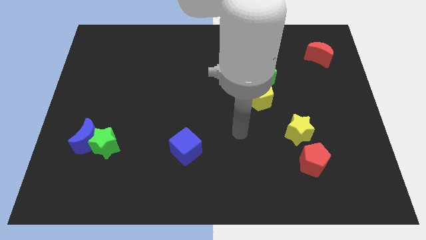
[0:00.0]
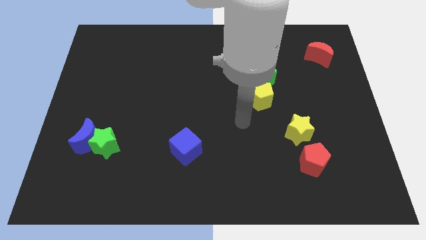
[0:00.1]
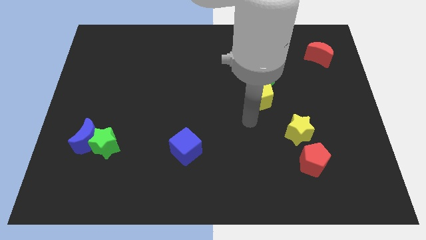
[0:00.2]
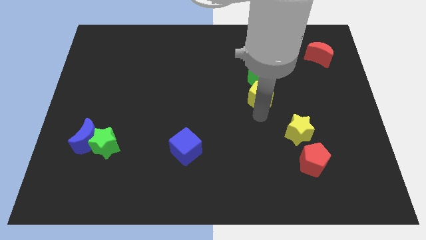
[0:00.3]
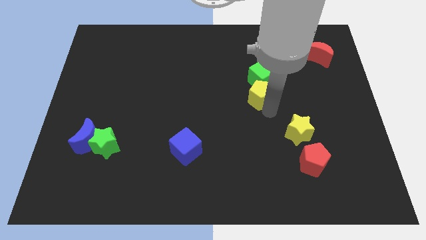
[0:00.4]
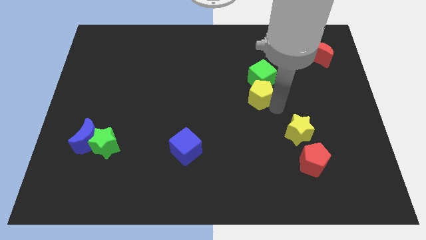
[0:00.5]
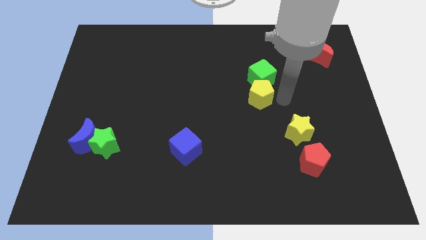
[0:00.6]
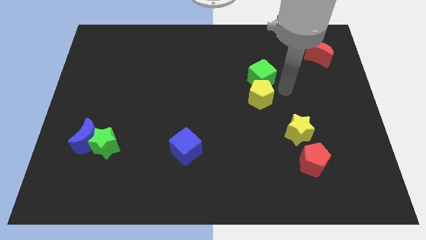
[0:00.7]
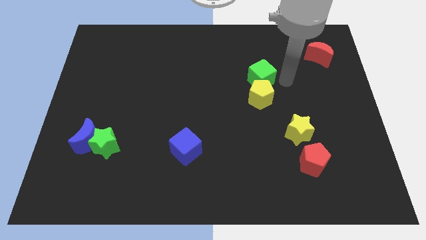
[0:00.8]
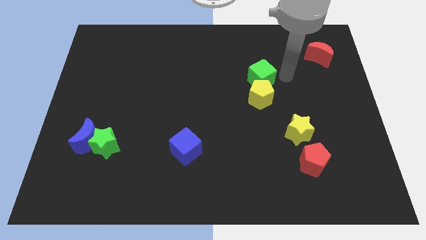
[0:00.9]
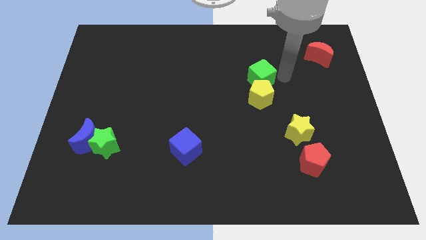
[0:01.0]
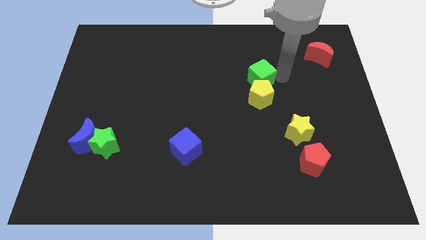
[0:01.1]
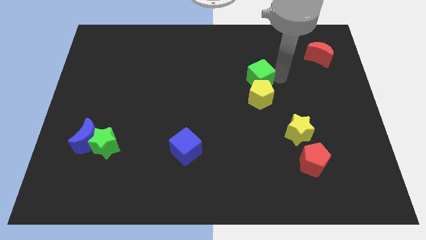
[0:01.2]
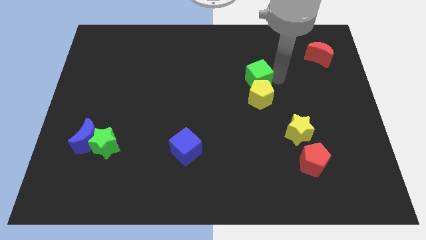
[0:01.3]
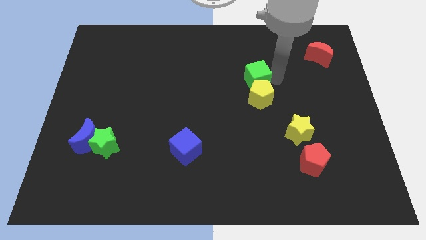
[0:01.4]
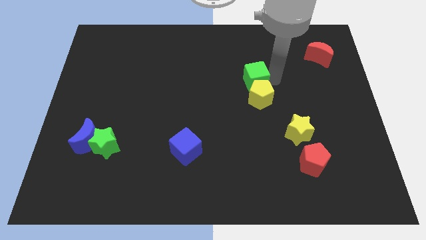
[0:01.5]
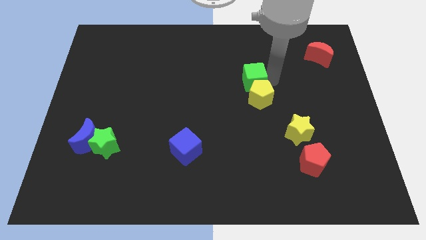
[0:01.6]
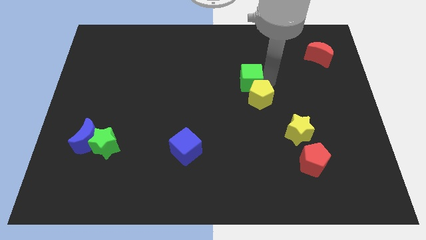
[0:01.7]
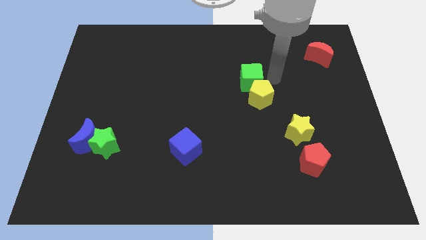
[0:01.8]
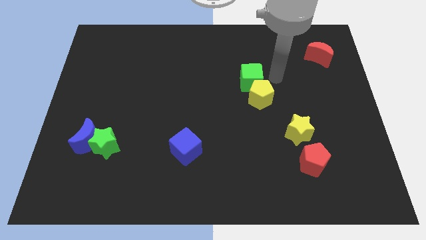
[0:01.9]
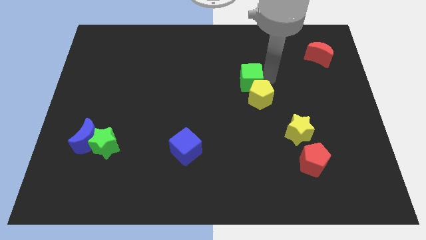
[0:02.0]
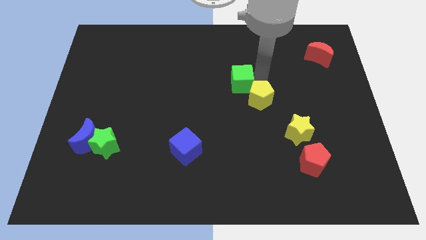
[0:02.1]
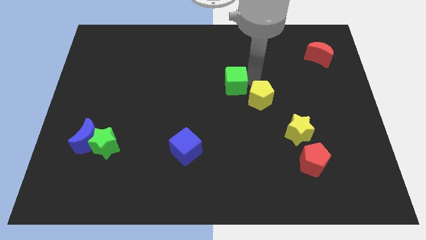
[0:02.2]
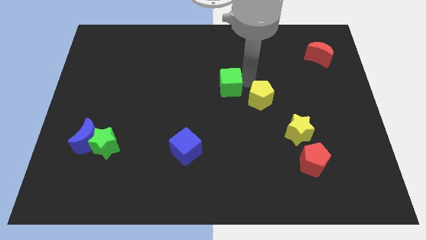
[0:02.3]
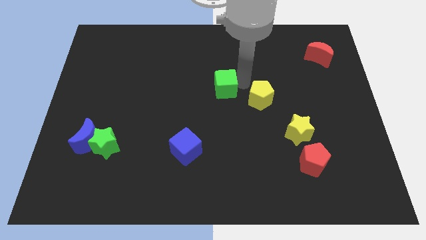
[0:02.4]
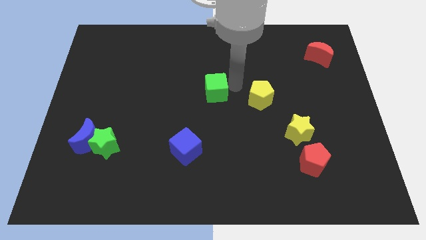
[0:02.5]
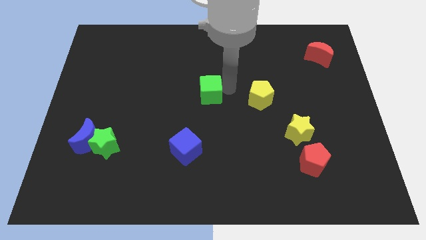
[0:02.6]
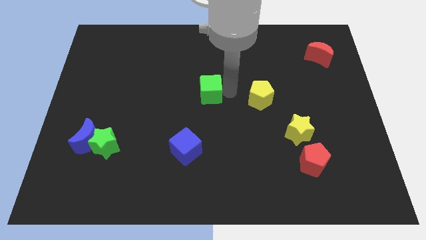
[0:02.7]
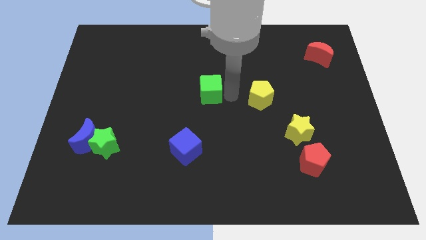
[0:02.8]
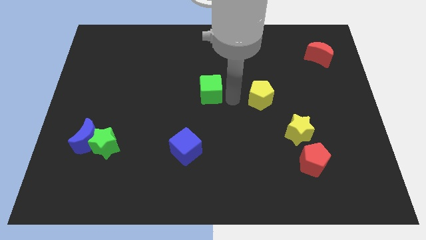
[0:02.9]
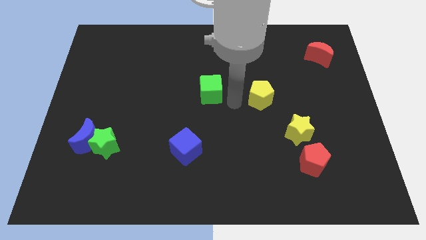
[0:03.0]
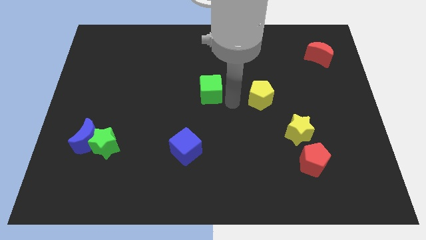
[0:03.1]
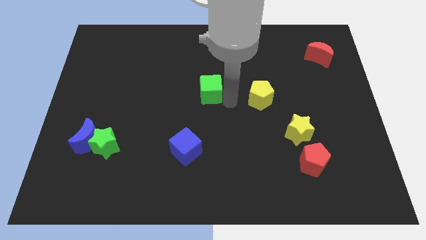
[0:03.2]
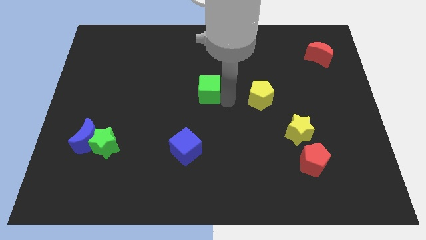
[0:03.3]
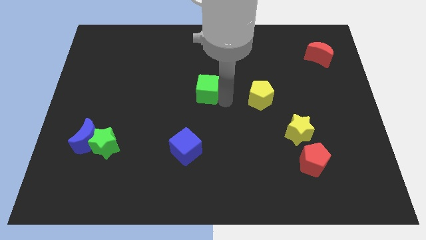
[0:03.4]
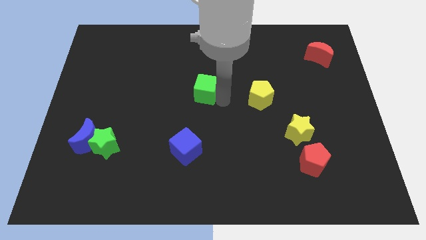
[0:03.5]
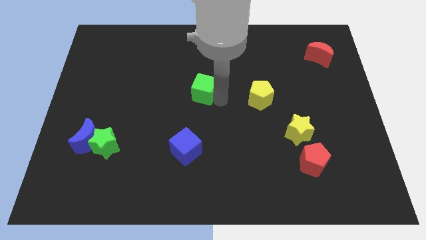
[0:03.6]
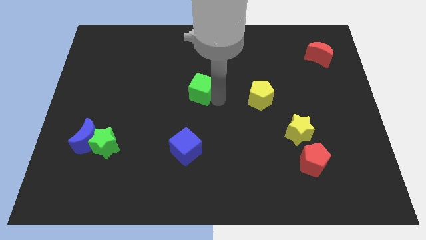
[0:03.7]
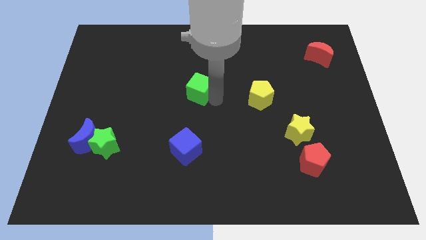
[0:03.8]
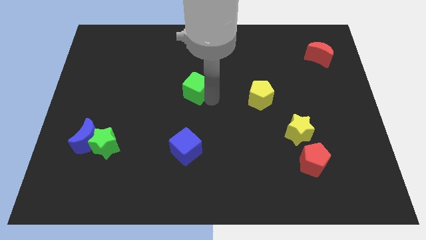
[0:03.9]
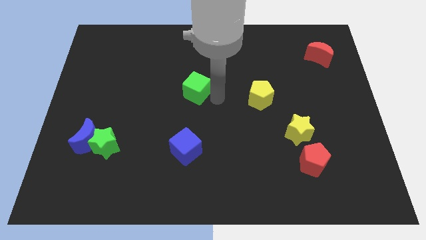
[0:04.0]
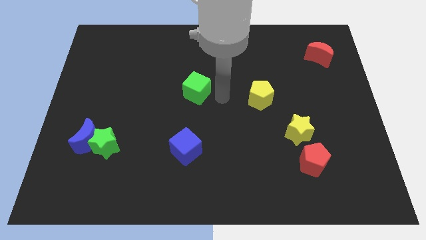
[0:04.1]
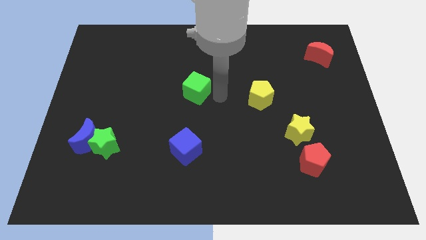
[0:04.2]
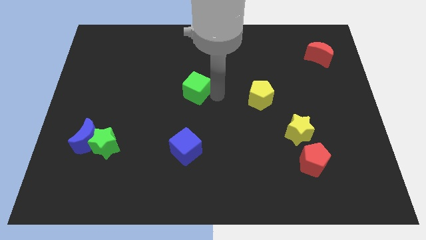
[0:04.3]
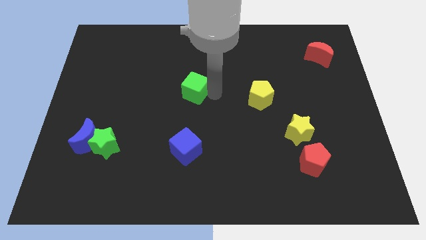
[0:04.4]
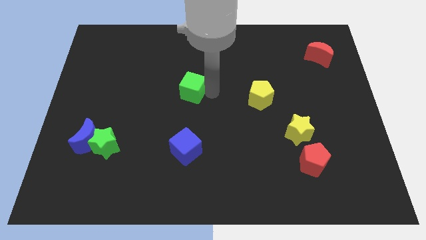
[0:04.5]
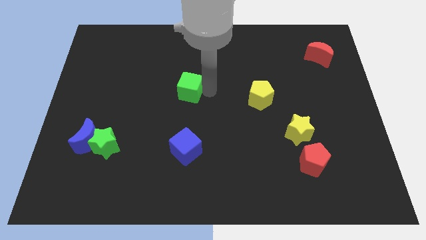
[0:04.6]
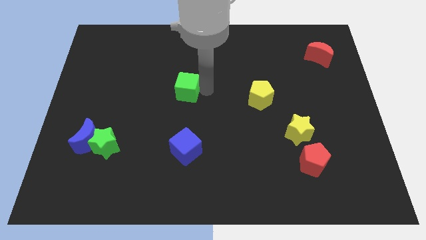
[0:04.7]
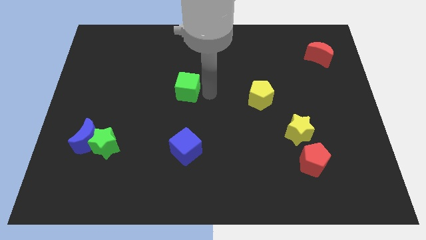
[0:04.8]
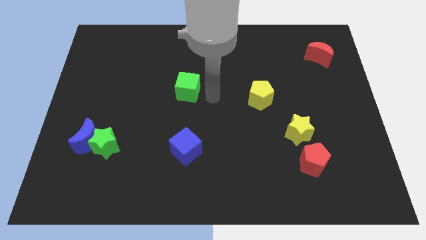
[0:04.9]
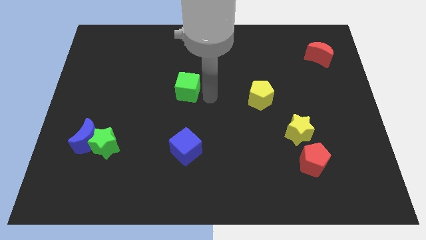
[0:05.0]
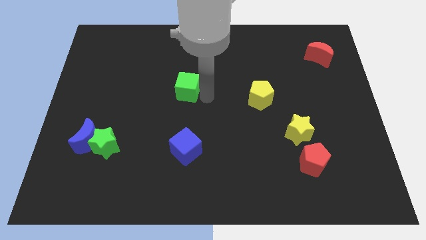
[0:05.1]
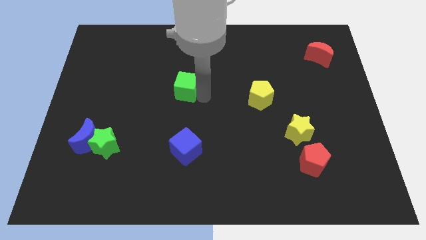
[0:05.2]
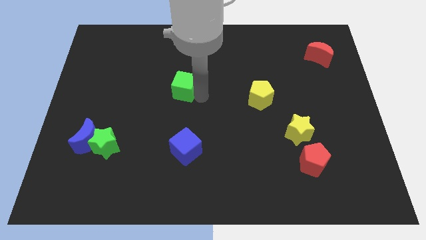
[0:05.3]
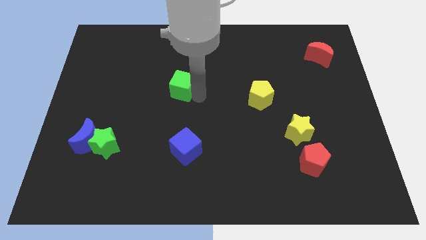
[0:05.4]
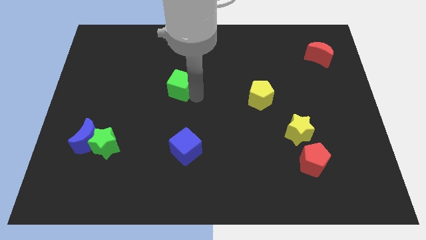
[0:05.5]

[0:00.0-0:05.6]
move the green cube left

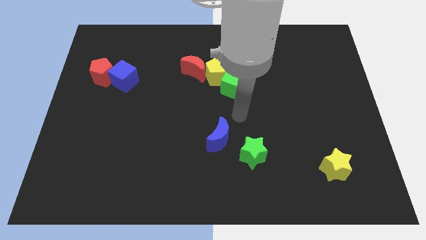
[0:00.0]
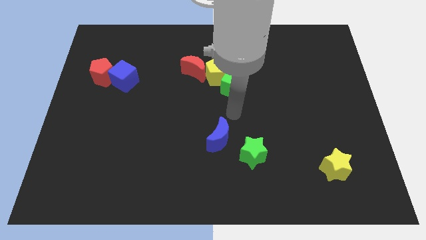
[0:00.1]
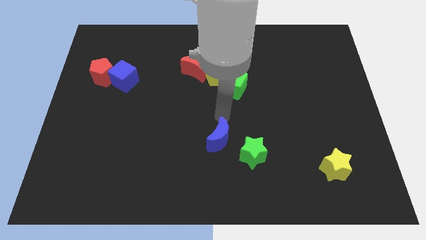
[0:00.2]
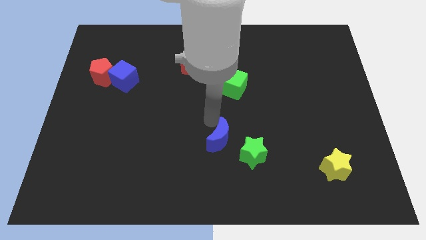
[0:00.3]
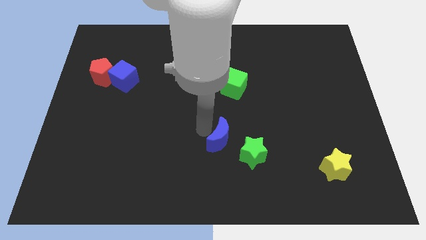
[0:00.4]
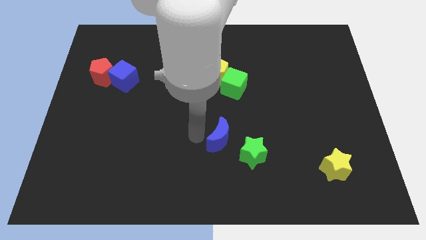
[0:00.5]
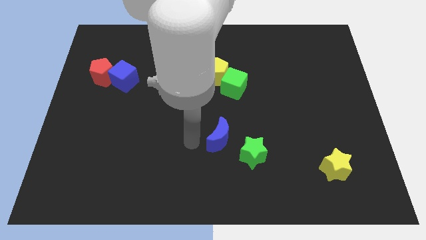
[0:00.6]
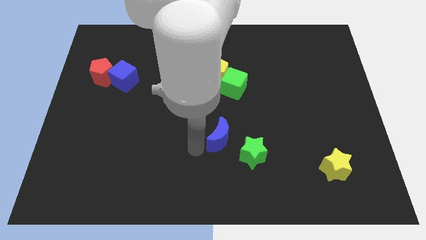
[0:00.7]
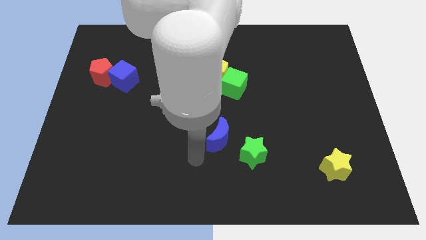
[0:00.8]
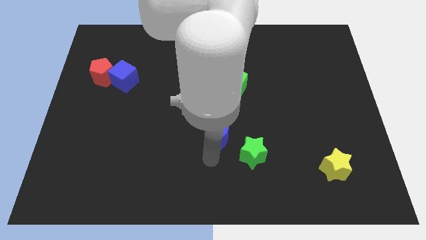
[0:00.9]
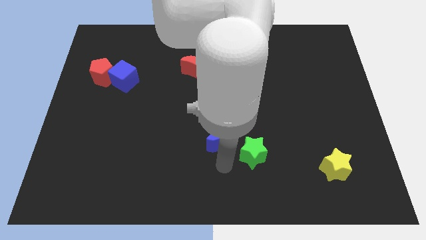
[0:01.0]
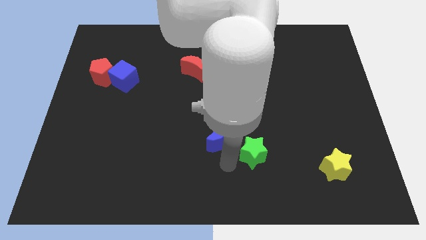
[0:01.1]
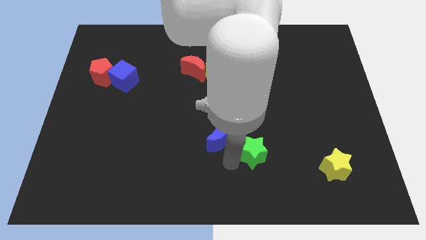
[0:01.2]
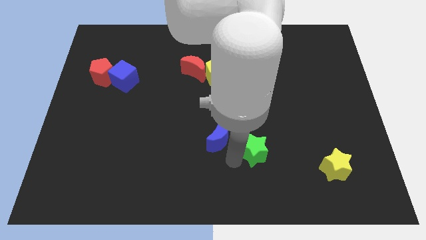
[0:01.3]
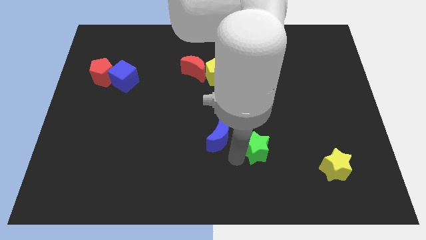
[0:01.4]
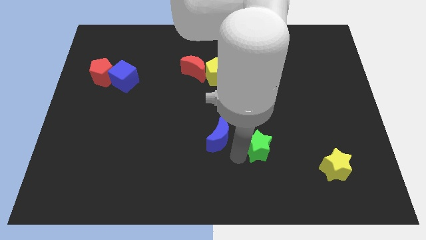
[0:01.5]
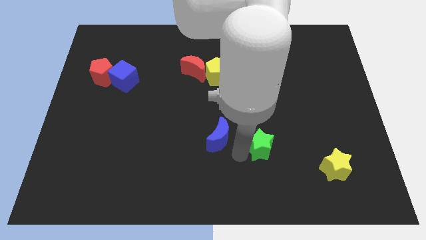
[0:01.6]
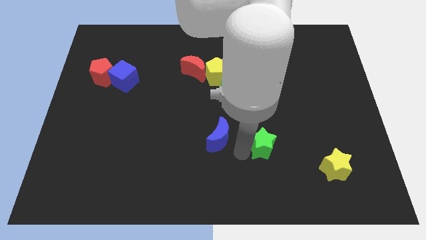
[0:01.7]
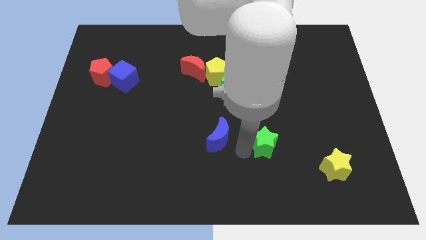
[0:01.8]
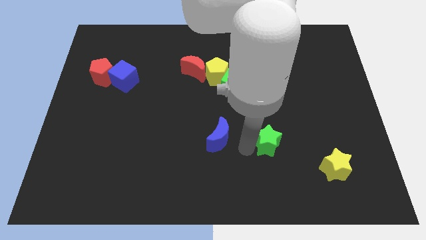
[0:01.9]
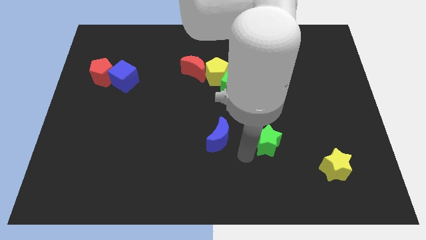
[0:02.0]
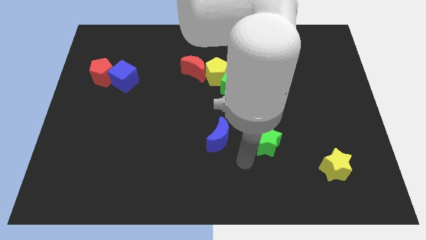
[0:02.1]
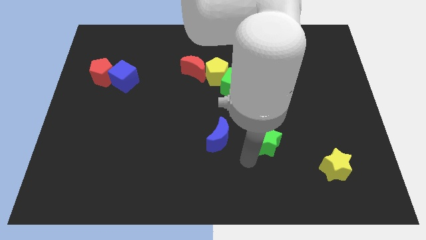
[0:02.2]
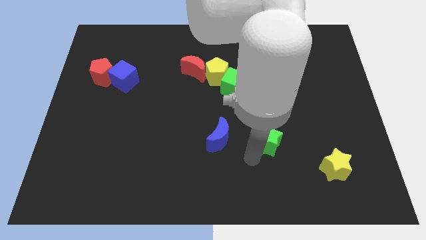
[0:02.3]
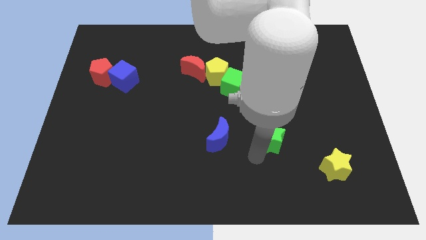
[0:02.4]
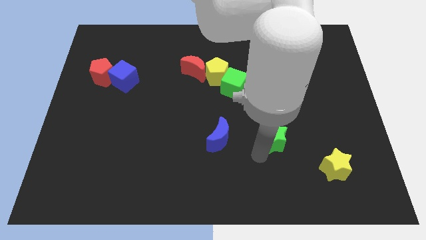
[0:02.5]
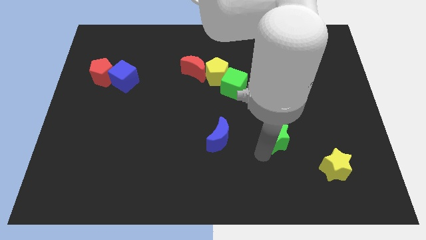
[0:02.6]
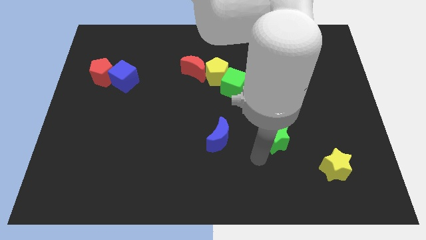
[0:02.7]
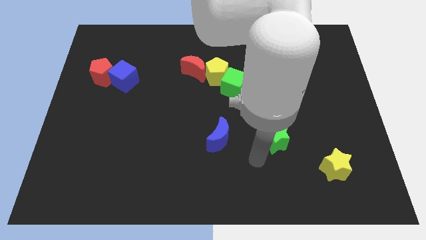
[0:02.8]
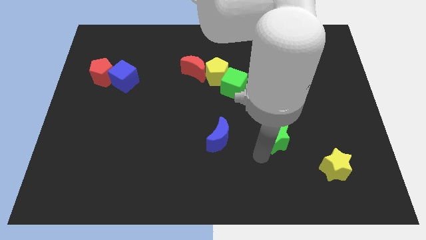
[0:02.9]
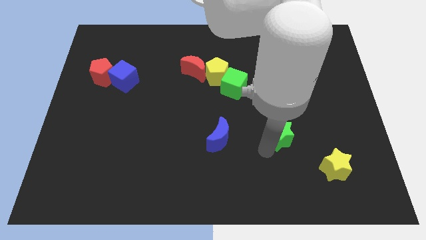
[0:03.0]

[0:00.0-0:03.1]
push the green star somewhat up and right
